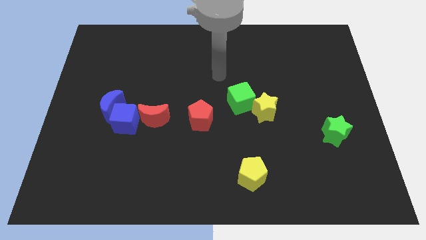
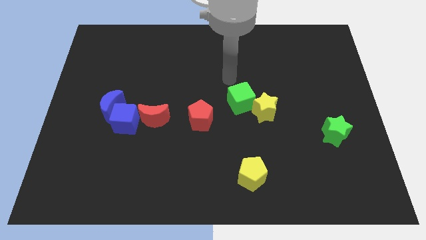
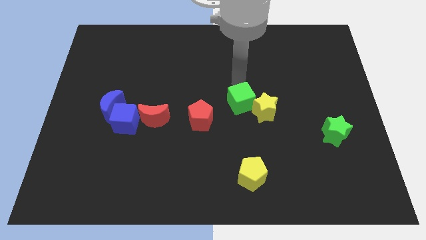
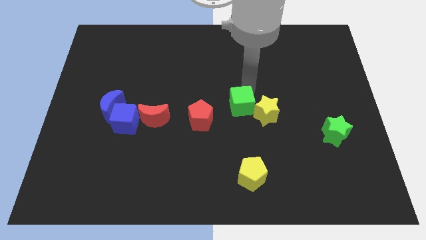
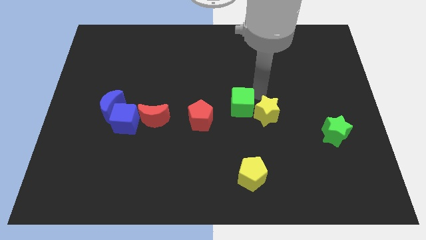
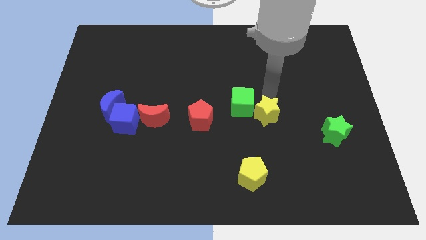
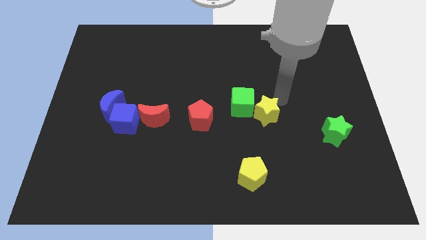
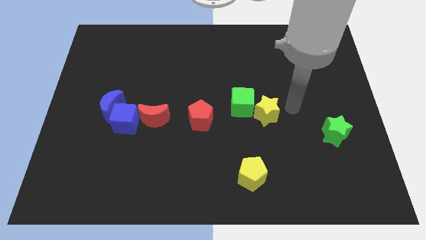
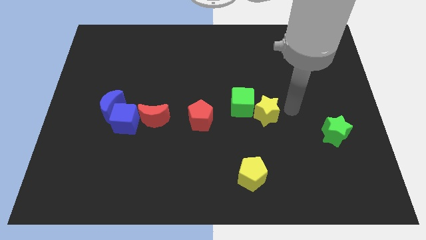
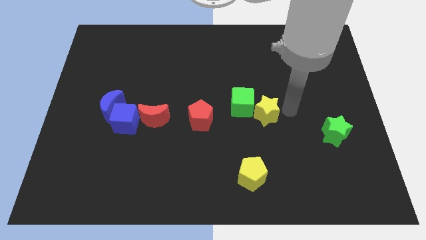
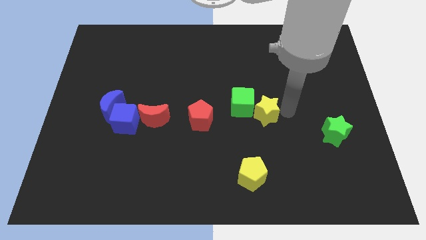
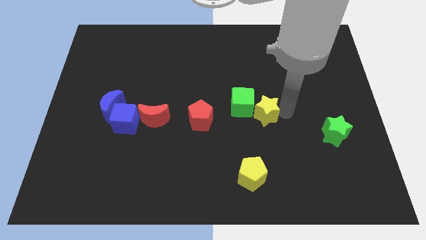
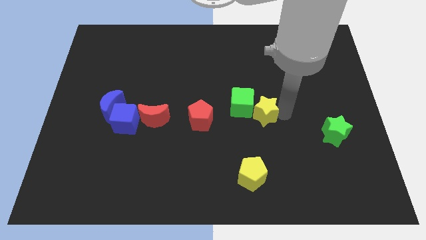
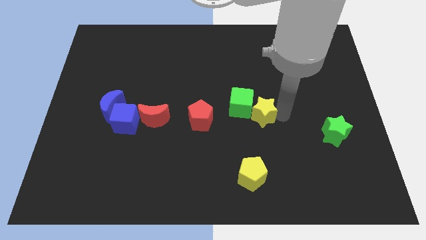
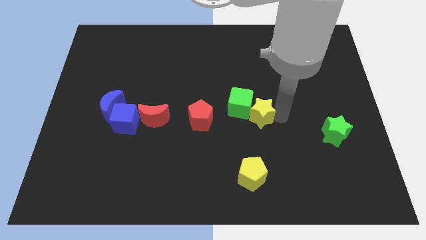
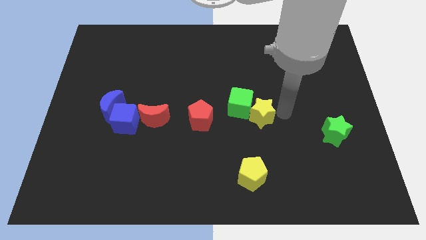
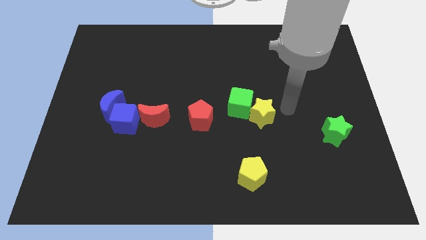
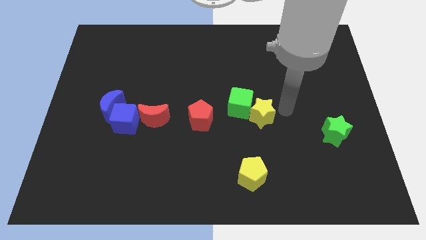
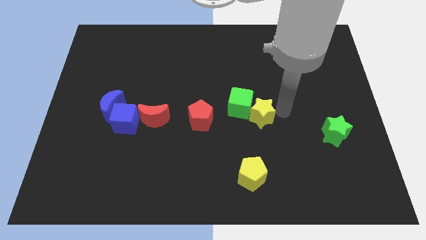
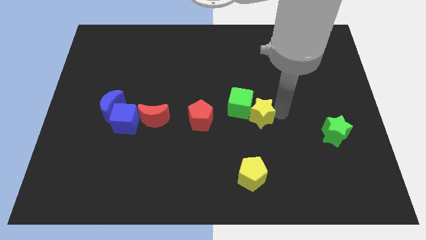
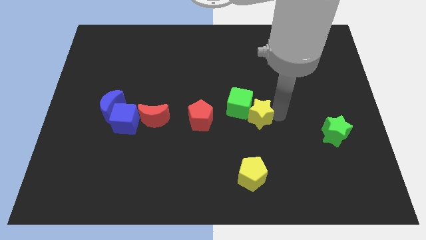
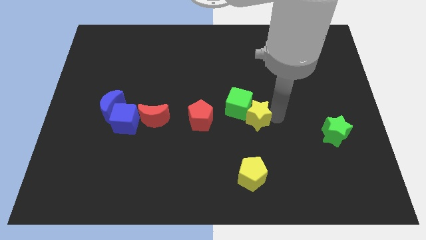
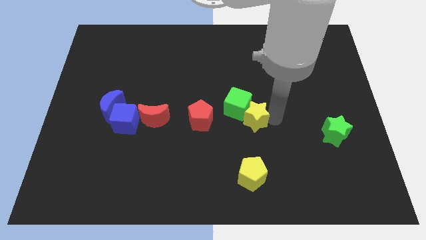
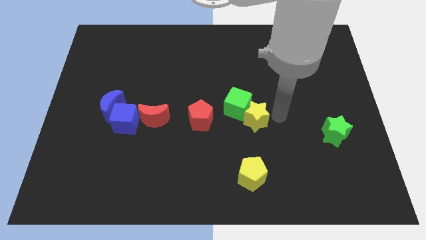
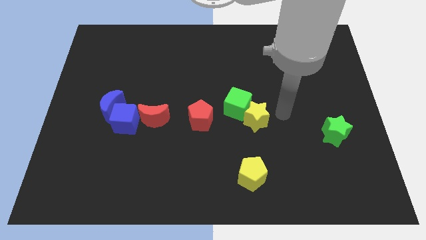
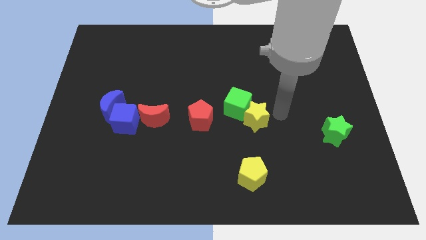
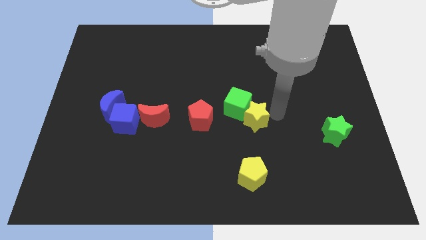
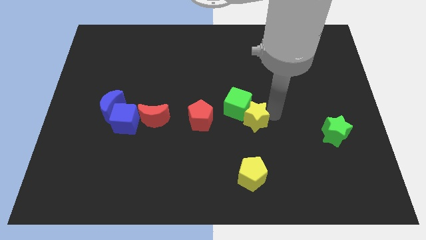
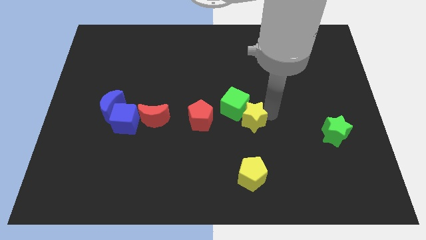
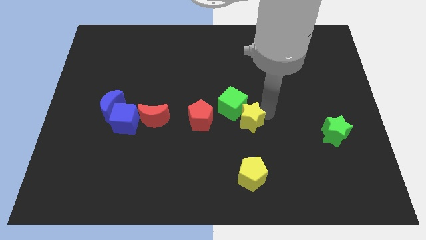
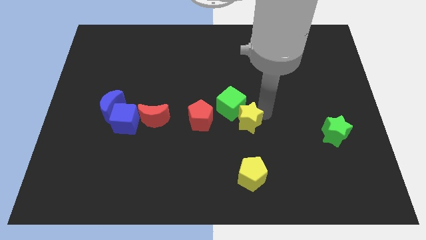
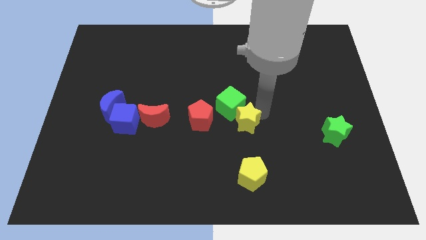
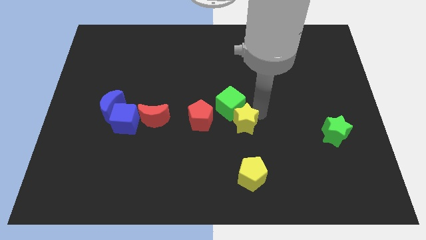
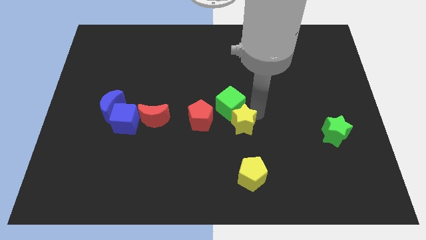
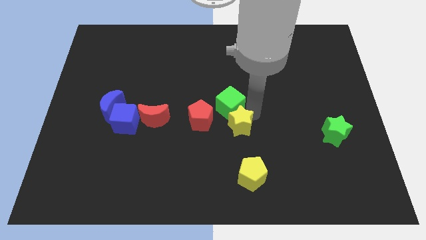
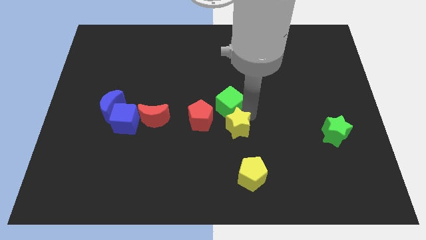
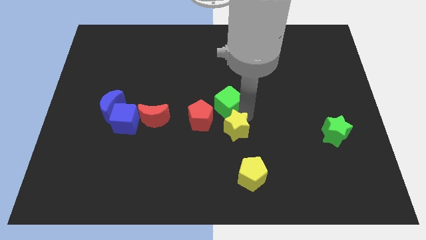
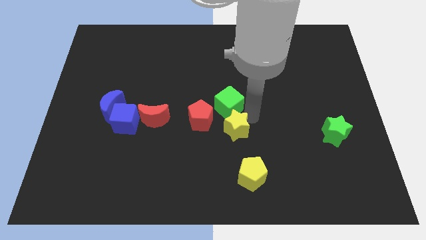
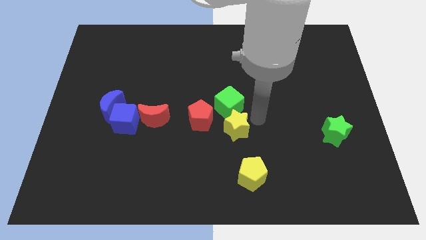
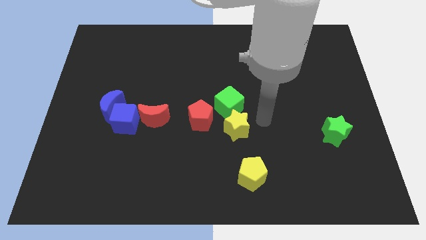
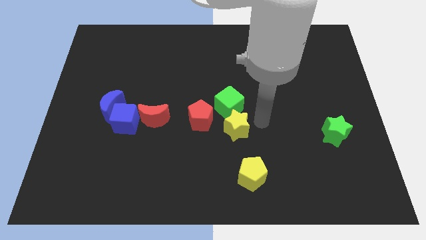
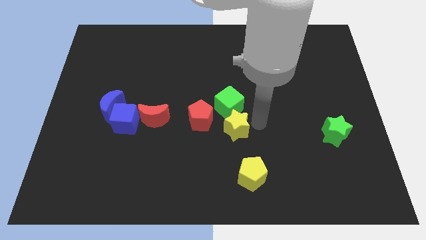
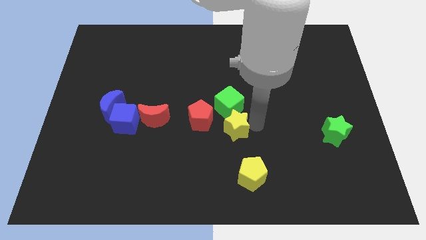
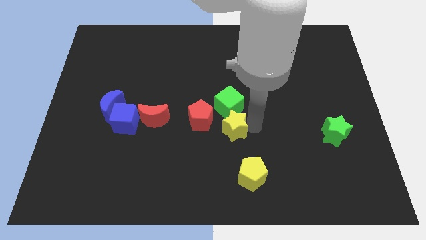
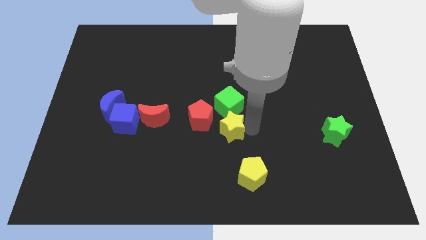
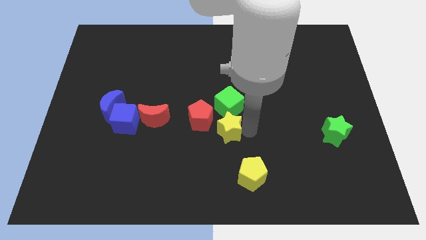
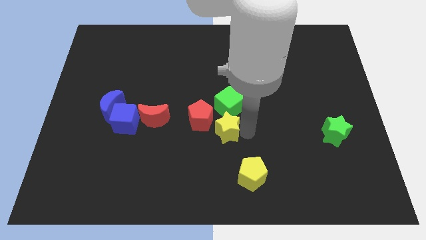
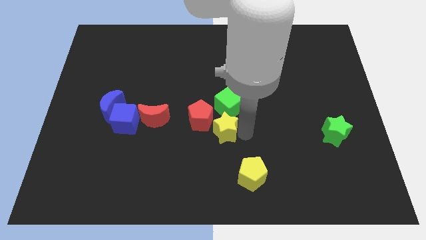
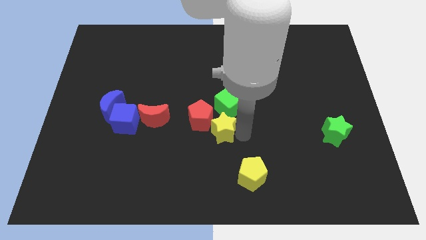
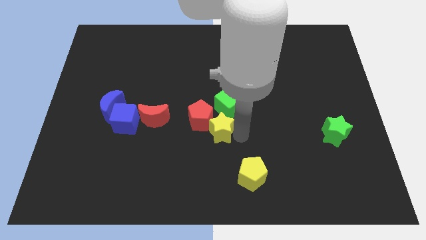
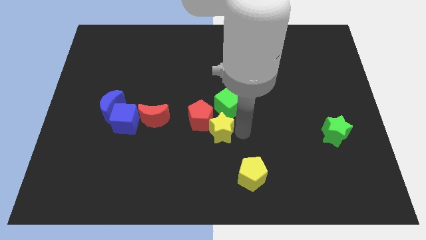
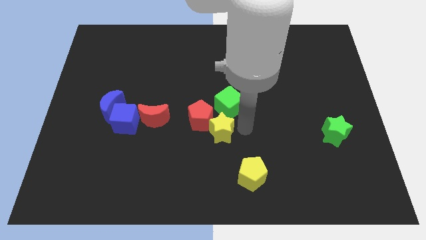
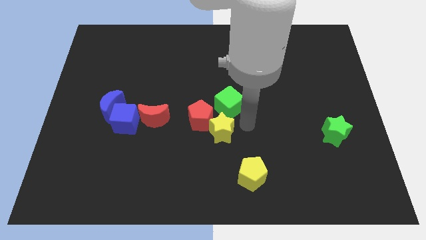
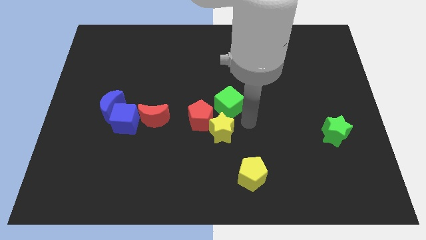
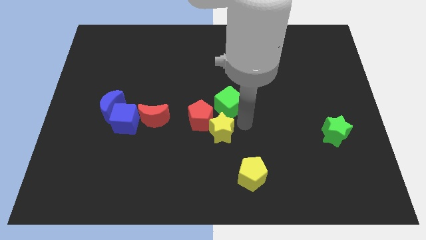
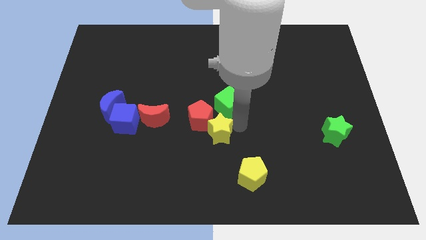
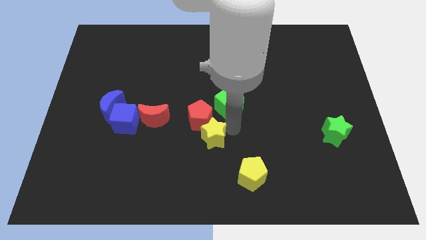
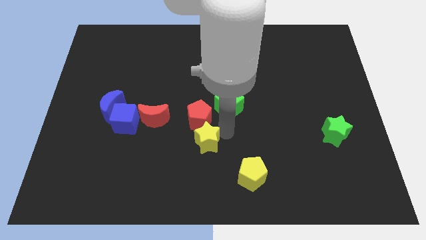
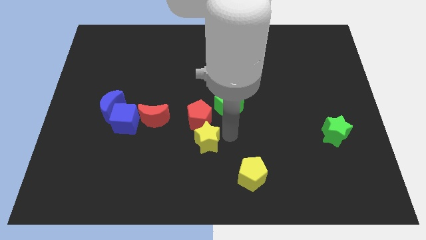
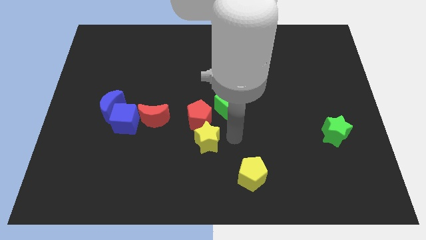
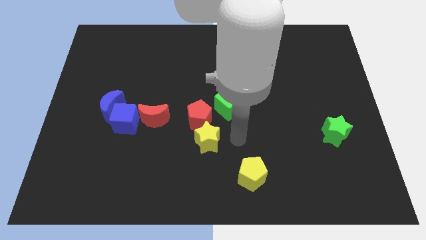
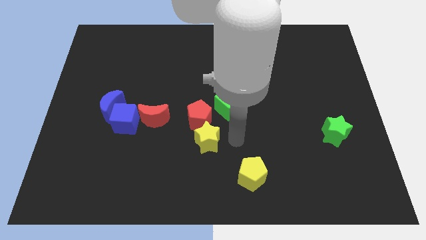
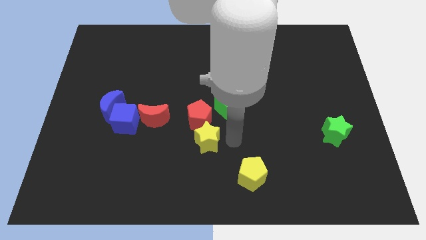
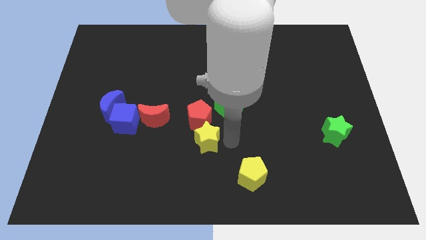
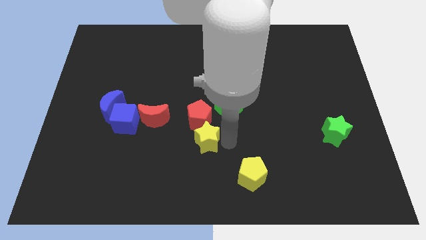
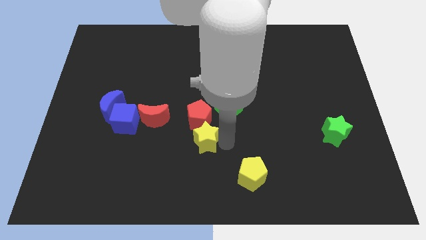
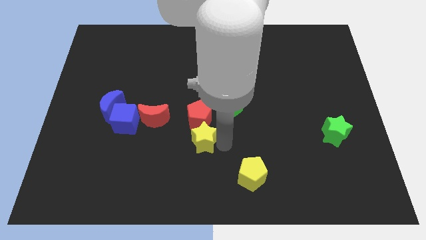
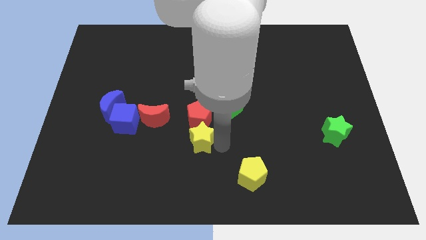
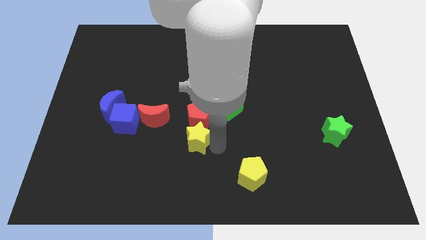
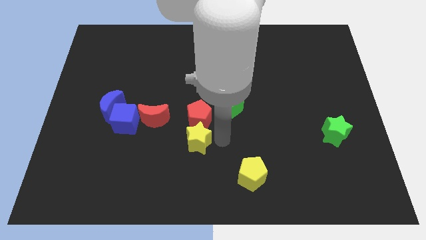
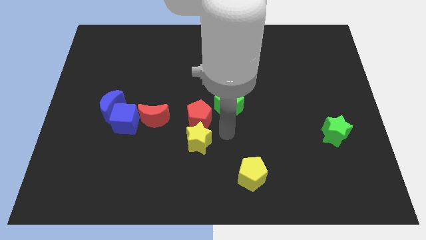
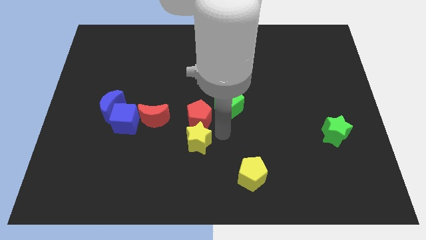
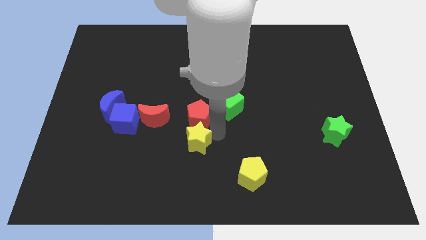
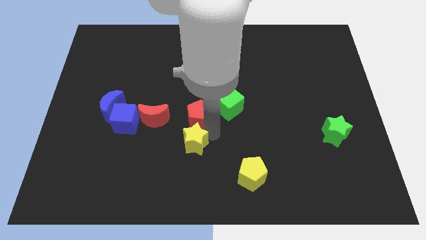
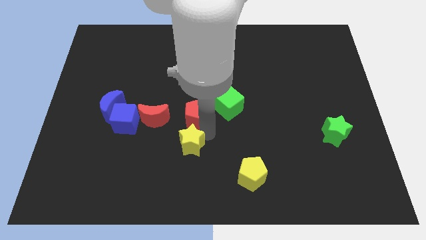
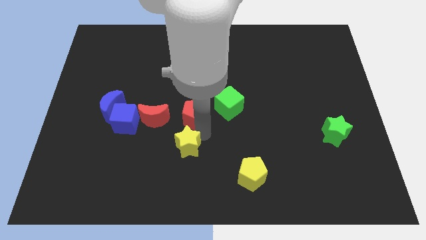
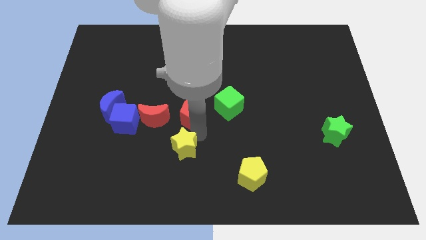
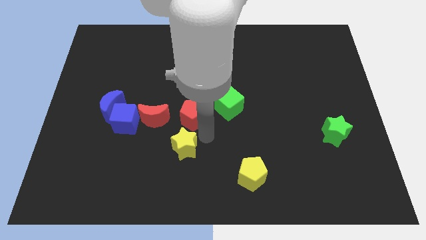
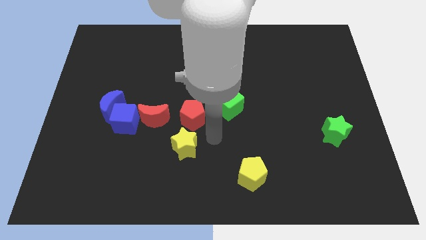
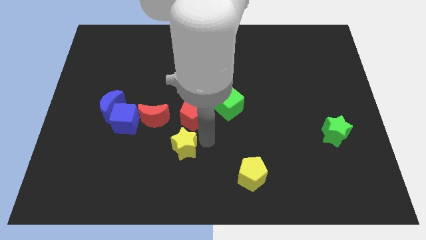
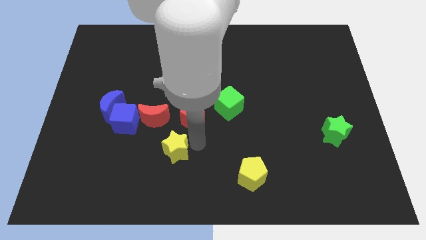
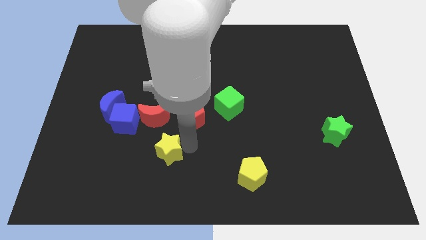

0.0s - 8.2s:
move the yellow star to the bottom side of the red moon
